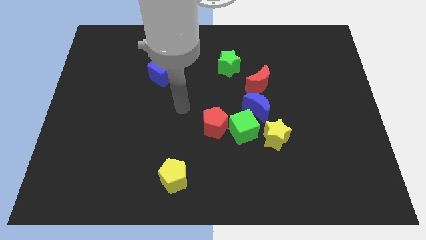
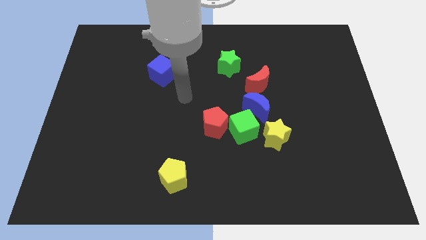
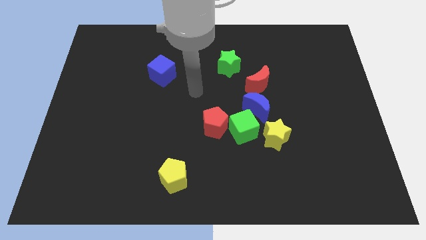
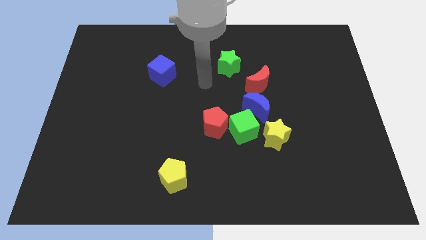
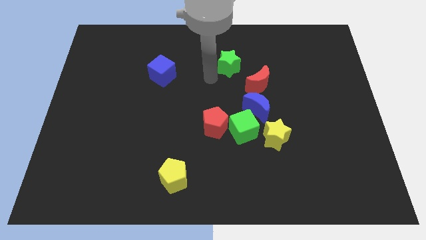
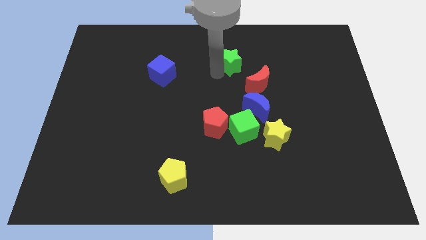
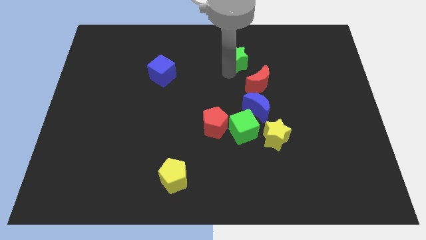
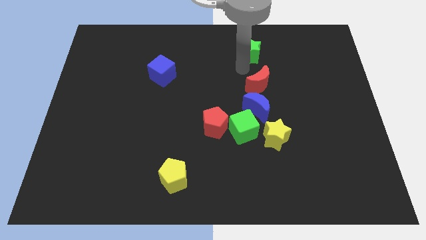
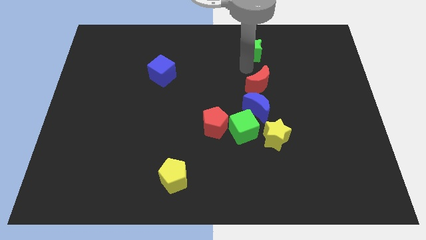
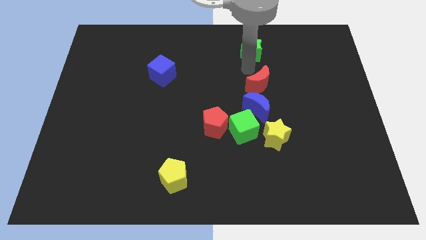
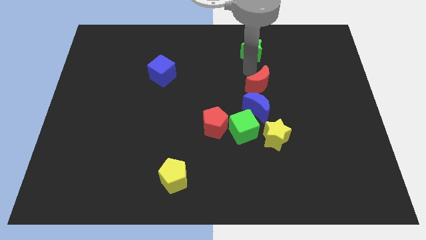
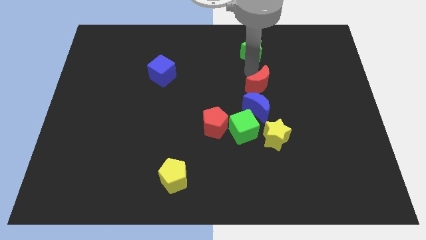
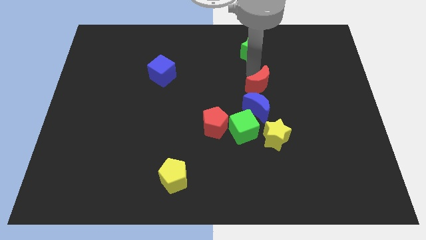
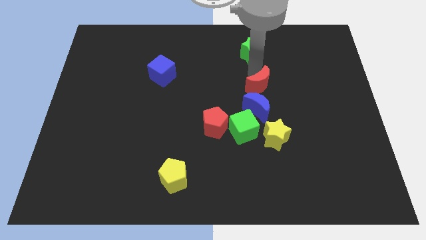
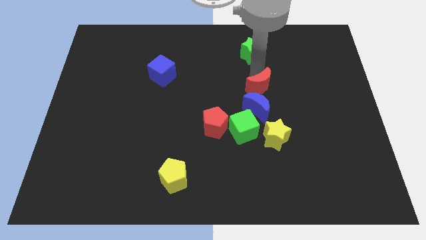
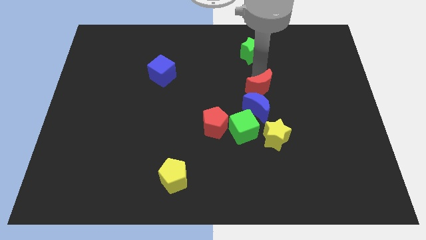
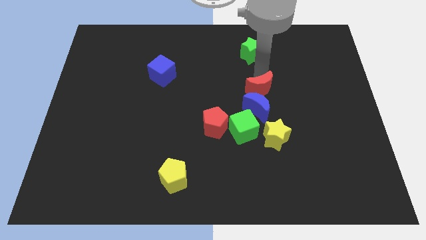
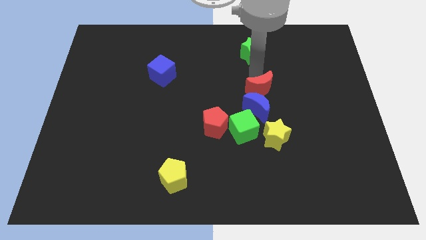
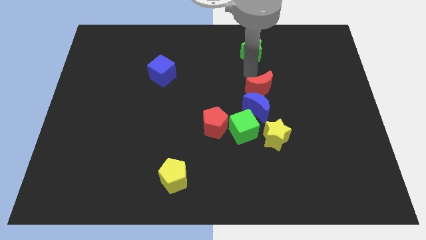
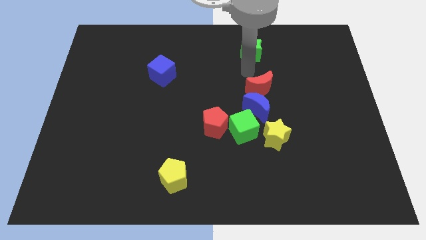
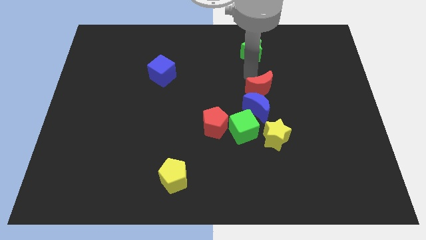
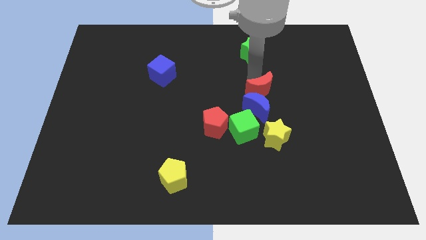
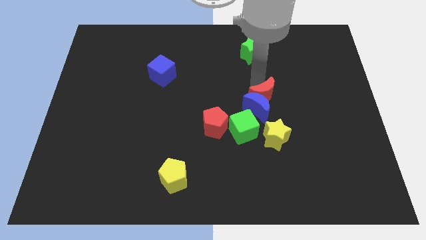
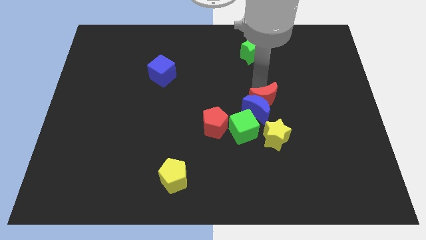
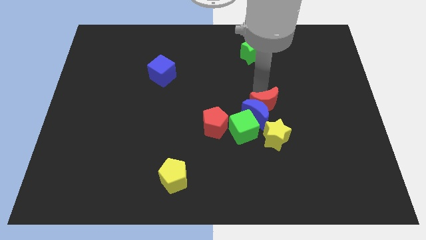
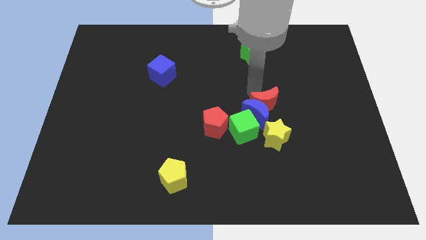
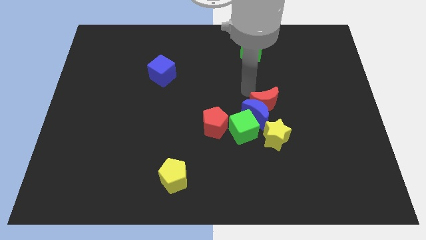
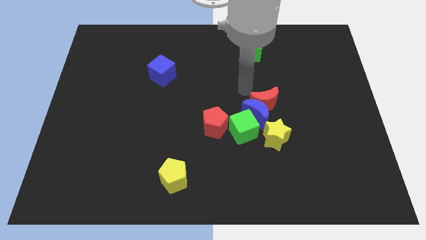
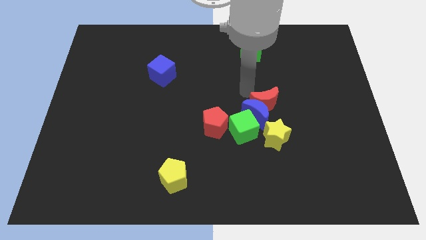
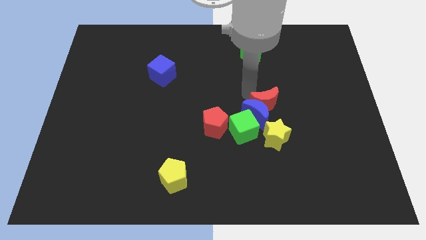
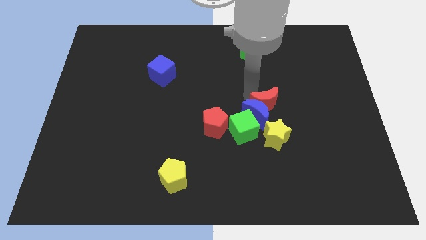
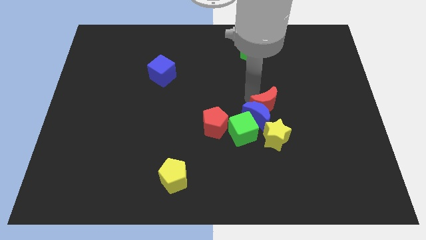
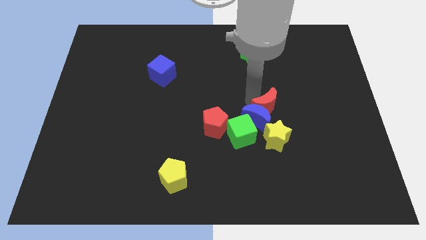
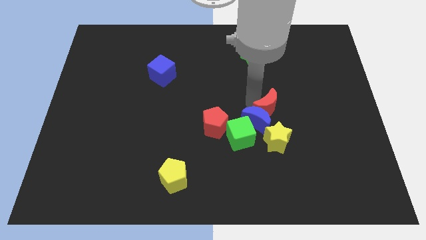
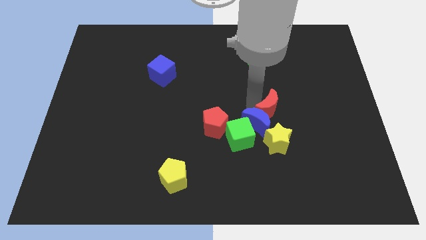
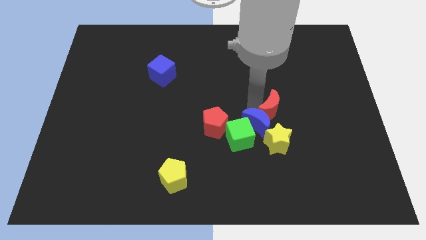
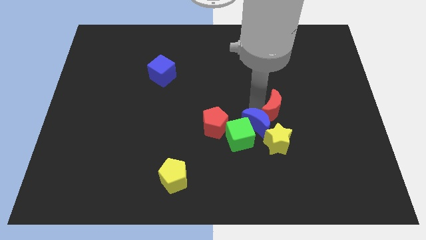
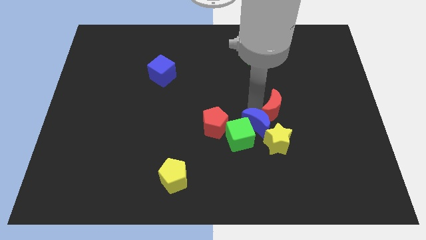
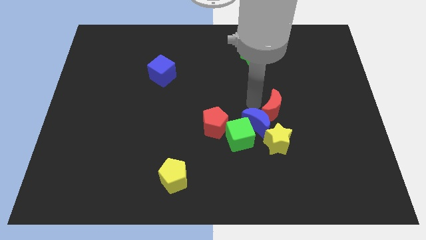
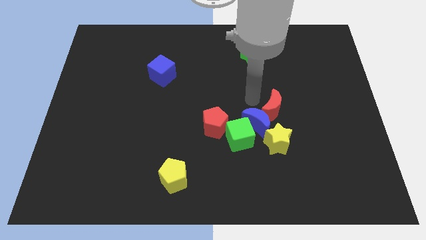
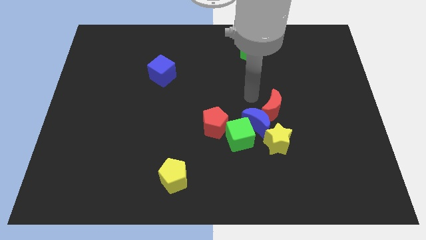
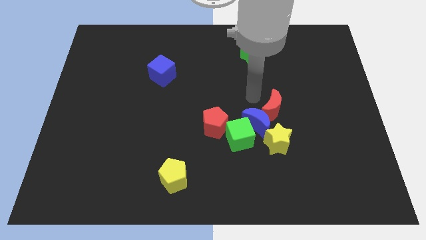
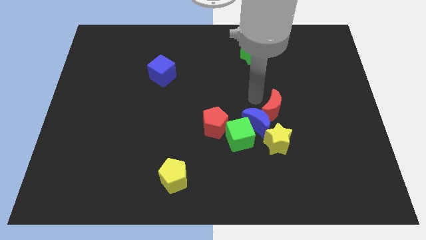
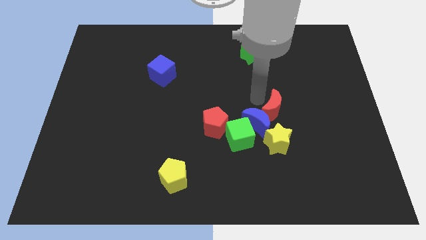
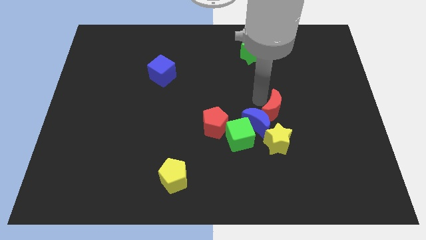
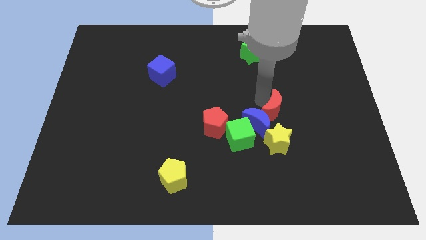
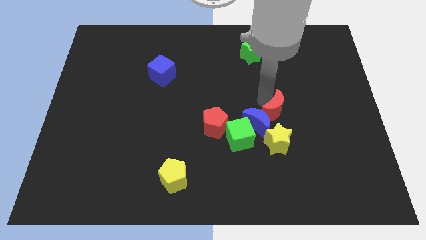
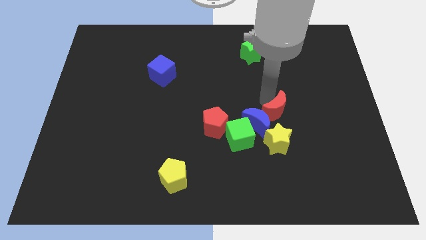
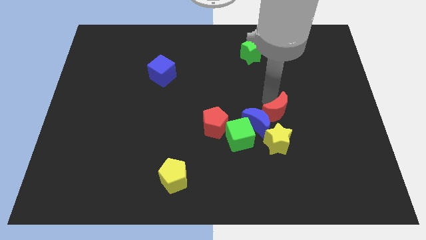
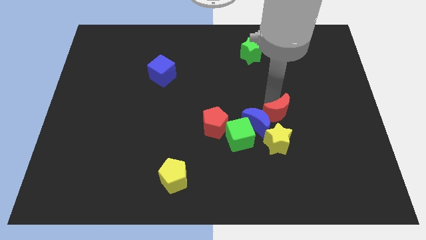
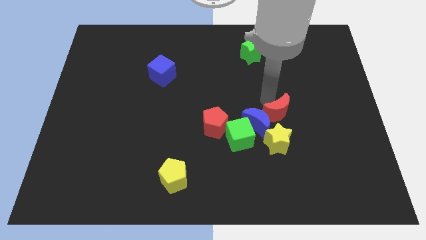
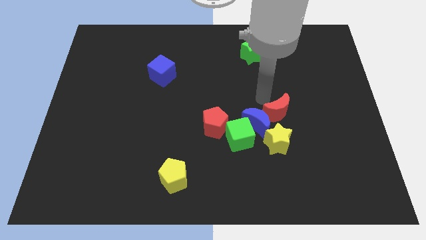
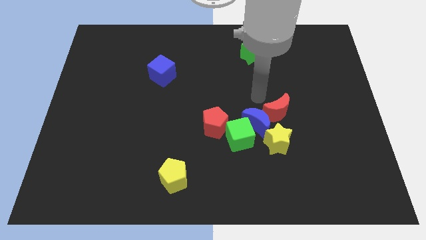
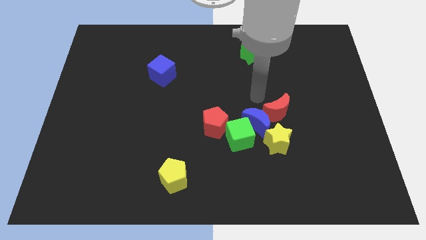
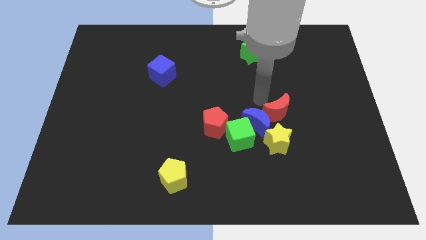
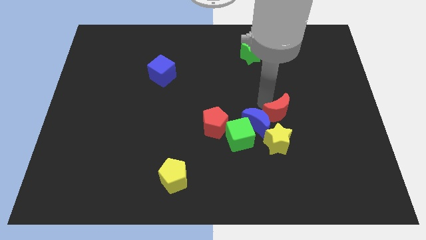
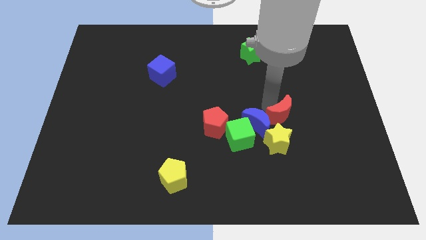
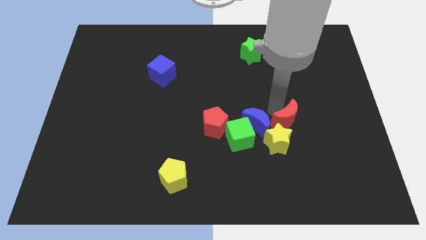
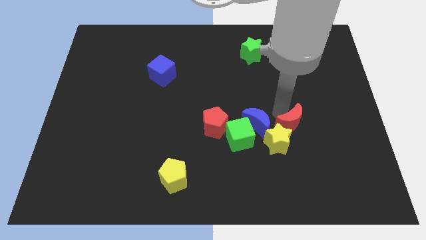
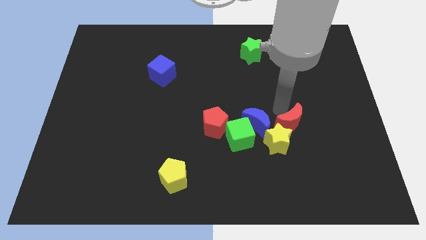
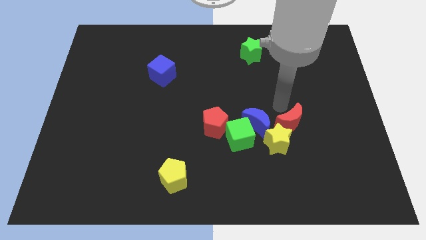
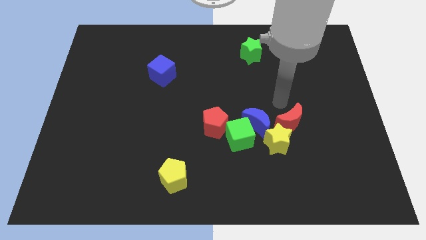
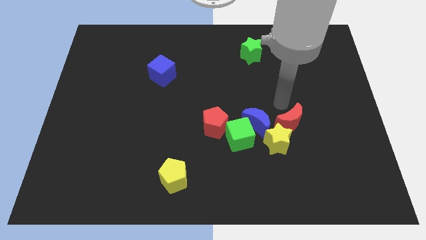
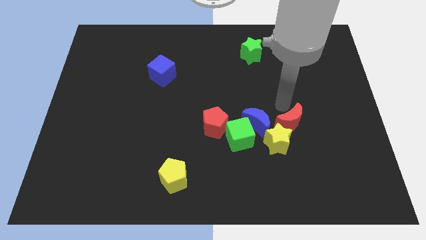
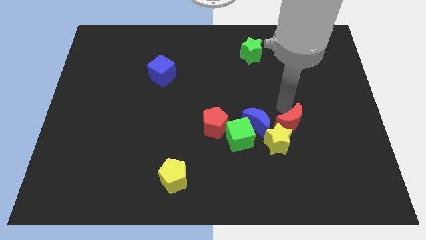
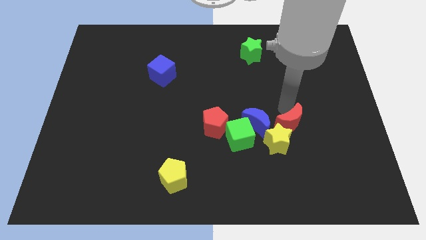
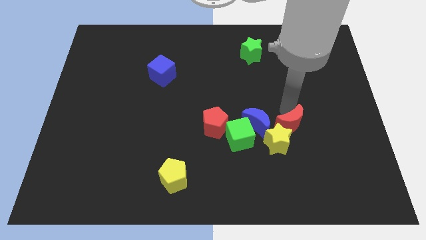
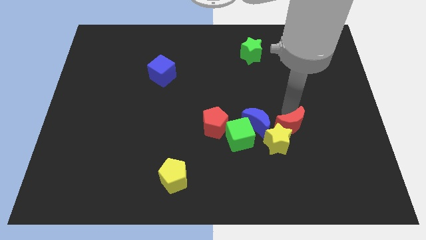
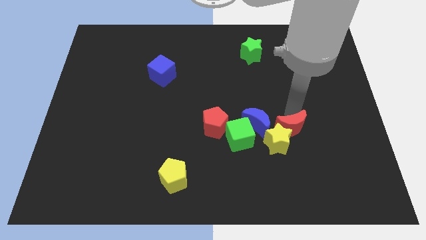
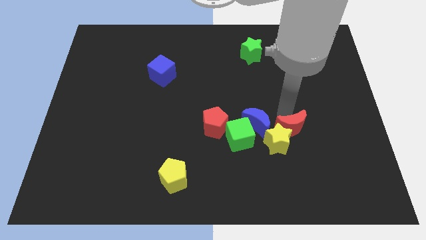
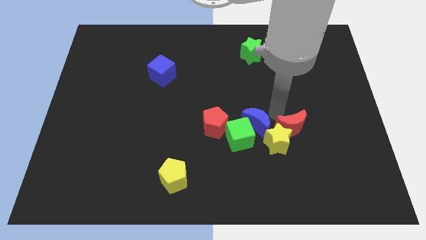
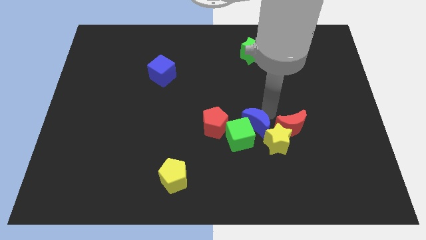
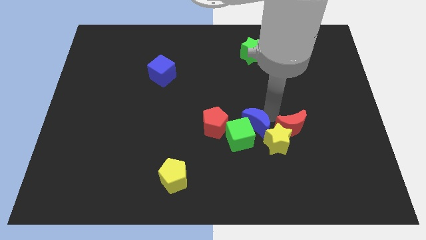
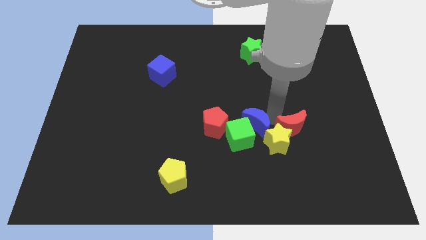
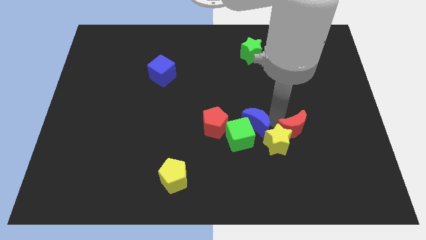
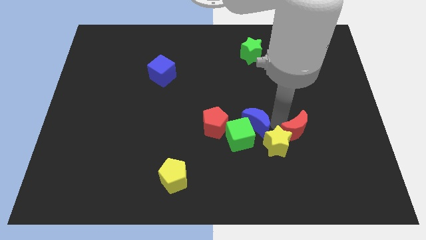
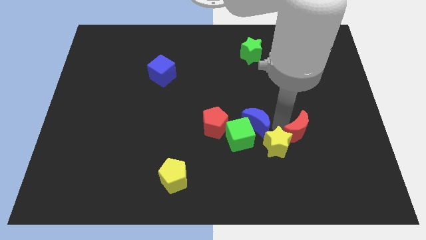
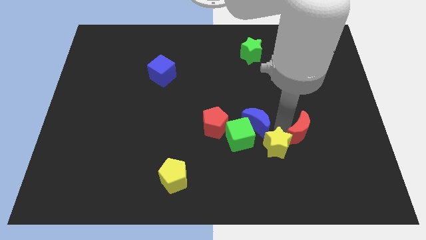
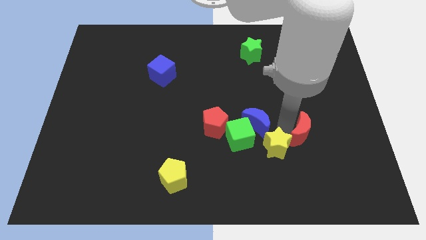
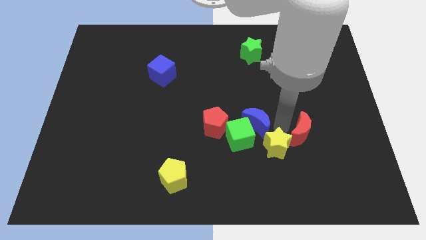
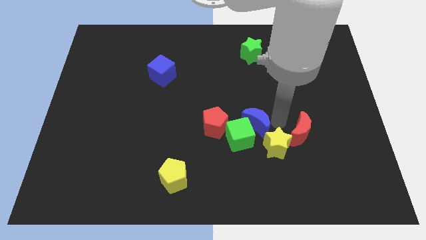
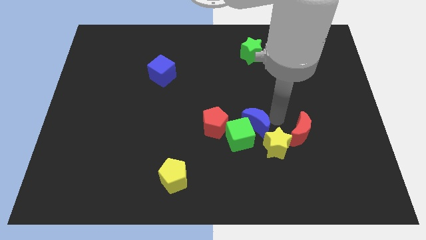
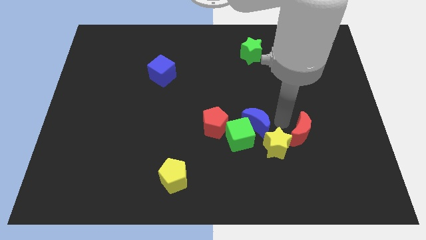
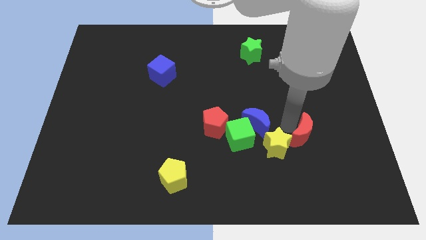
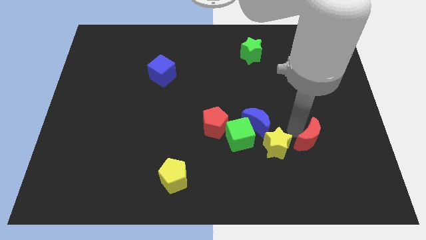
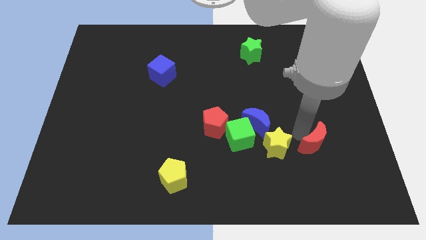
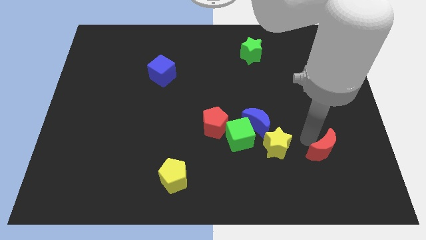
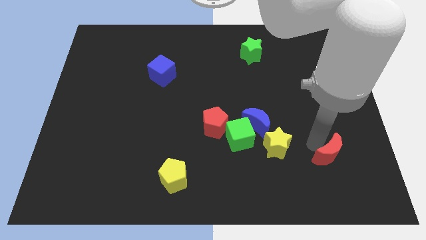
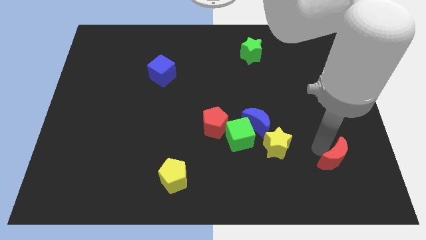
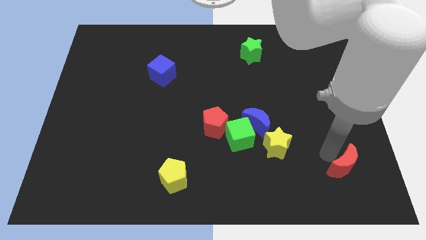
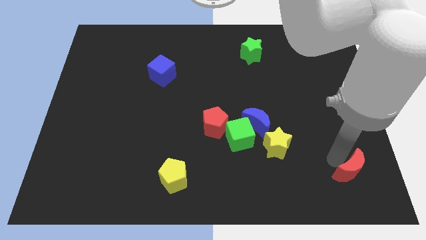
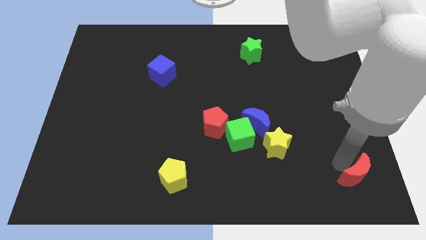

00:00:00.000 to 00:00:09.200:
move the red moon to the lower right corner
